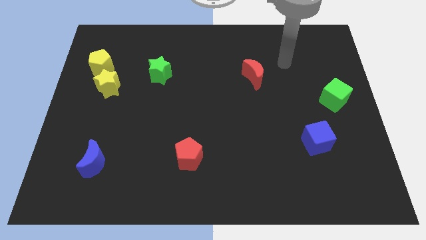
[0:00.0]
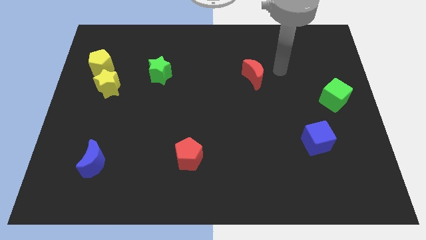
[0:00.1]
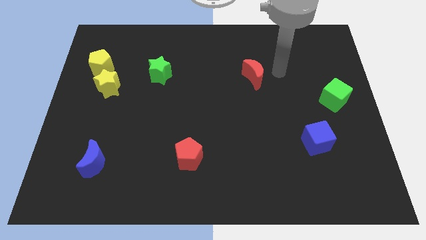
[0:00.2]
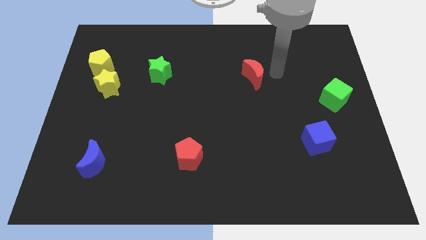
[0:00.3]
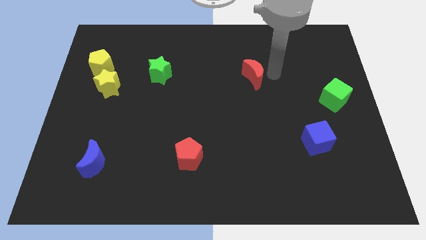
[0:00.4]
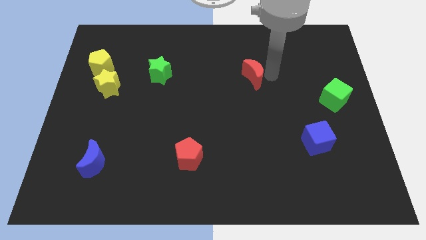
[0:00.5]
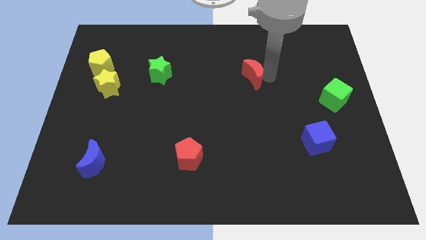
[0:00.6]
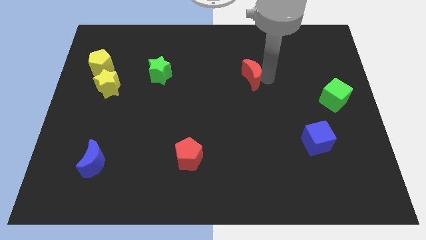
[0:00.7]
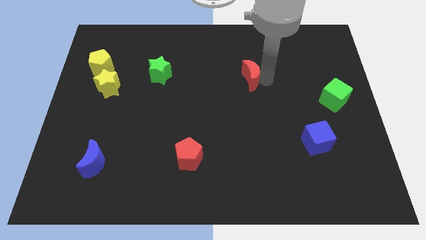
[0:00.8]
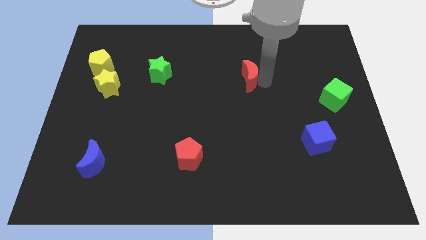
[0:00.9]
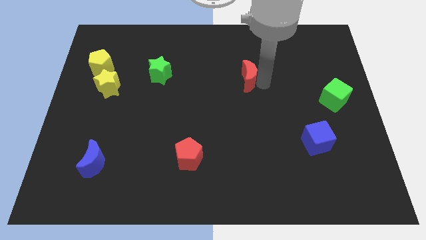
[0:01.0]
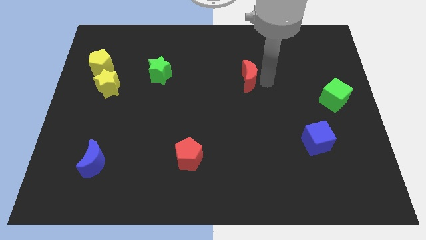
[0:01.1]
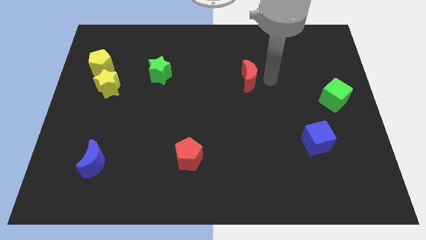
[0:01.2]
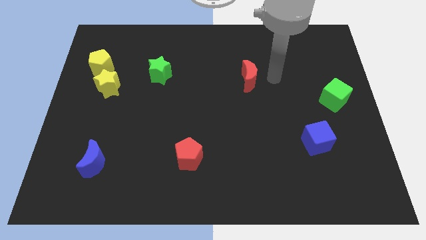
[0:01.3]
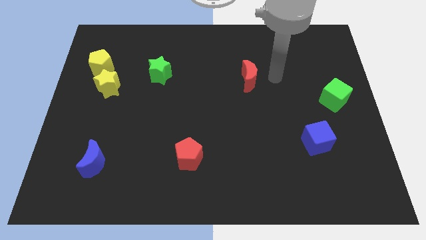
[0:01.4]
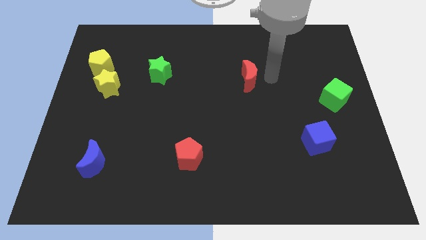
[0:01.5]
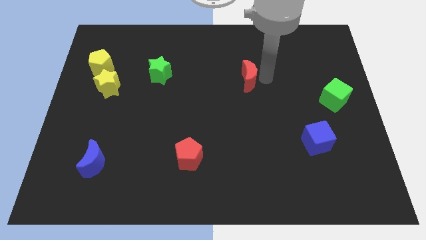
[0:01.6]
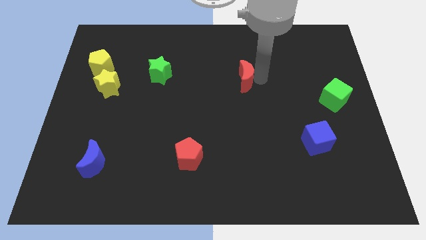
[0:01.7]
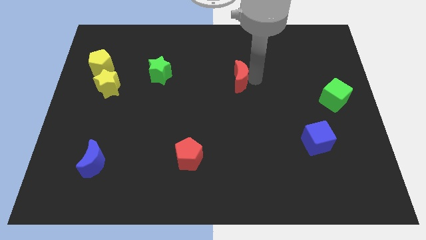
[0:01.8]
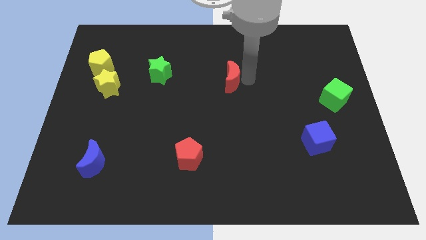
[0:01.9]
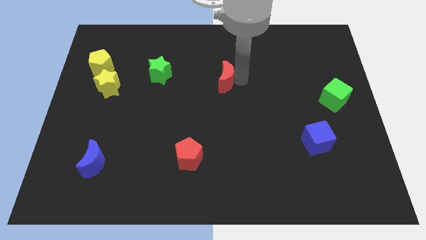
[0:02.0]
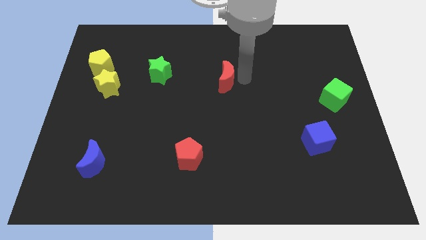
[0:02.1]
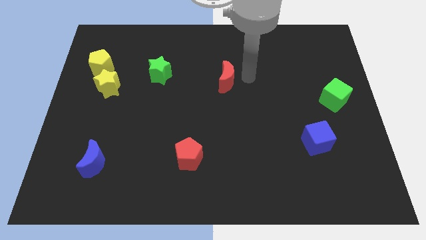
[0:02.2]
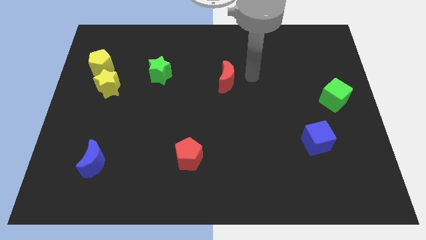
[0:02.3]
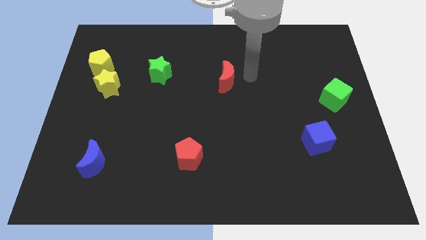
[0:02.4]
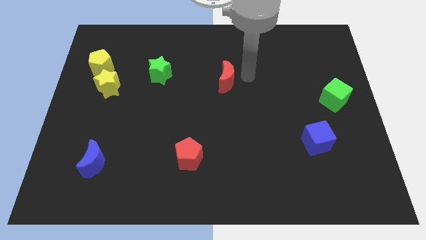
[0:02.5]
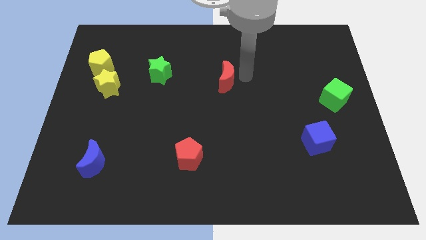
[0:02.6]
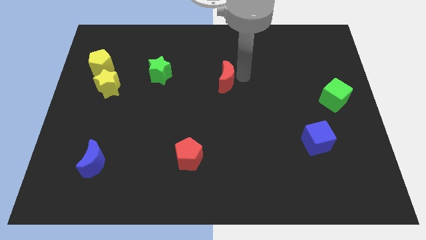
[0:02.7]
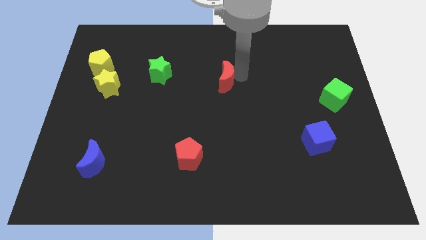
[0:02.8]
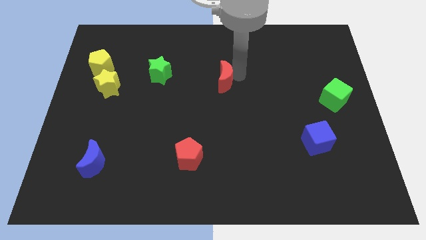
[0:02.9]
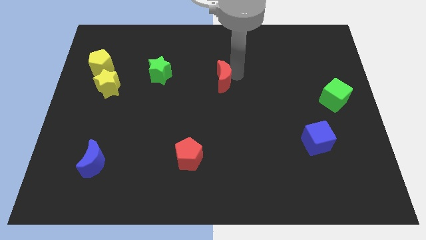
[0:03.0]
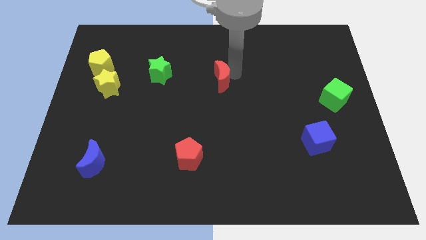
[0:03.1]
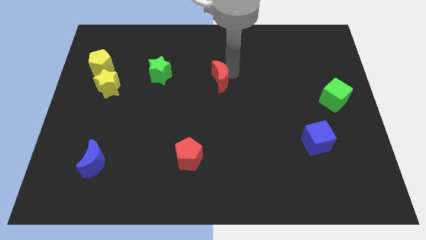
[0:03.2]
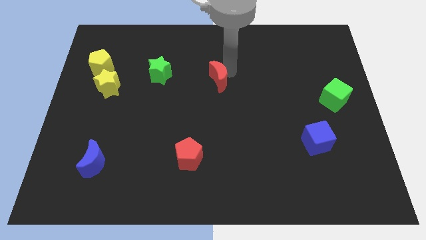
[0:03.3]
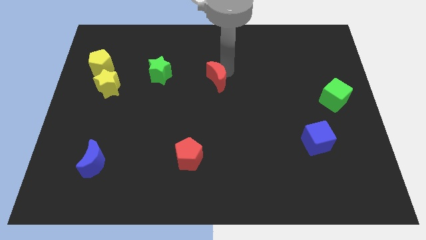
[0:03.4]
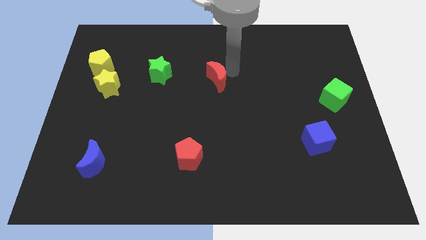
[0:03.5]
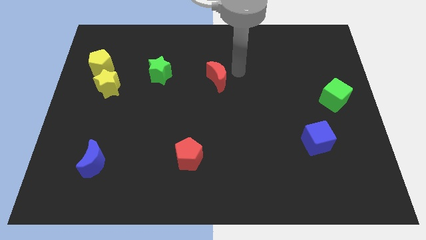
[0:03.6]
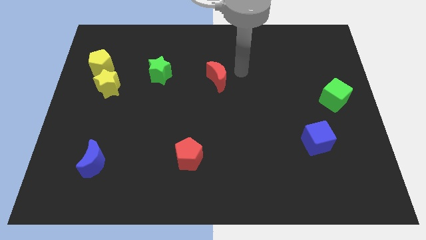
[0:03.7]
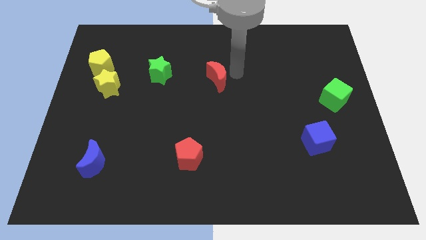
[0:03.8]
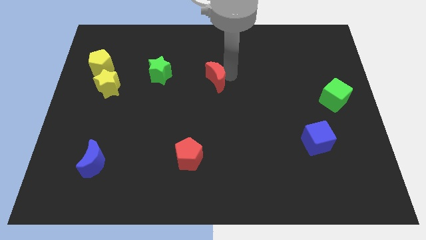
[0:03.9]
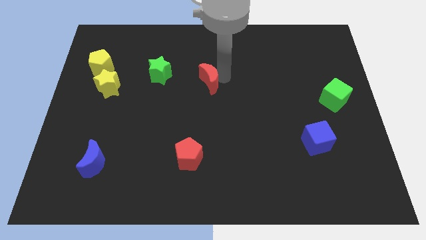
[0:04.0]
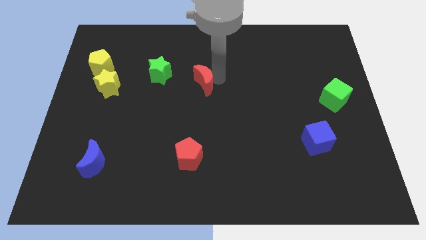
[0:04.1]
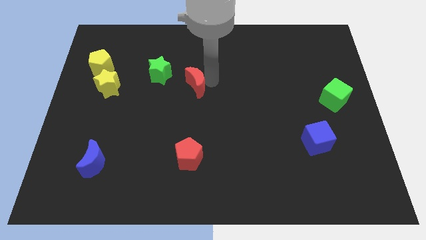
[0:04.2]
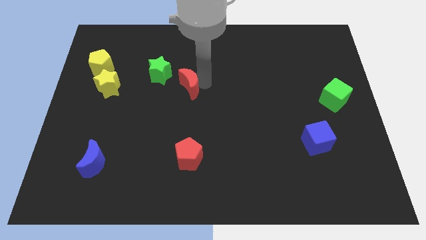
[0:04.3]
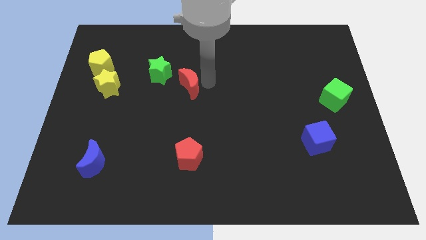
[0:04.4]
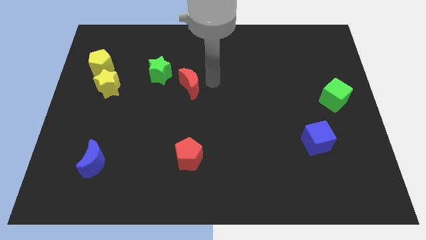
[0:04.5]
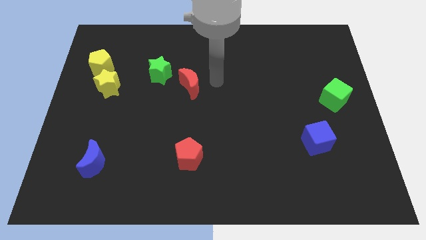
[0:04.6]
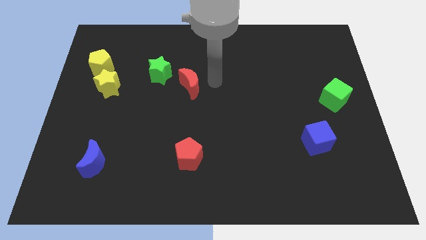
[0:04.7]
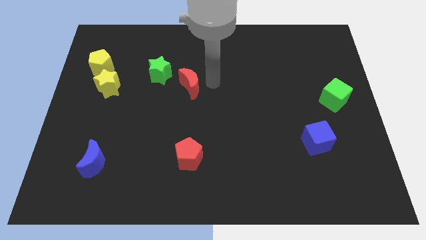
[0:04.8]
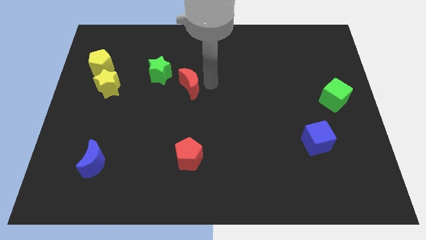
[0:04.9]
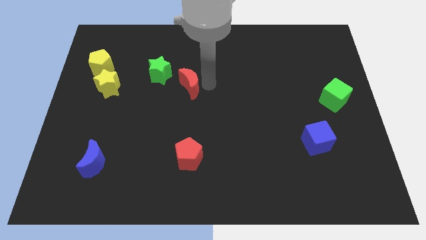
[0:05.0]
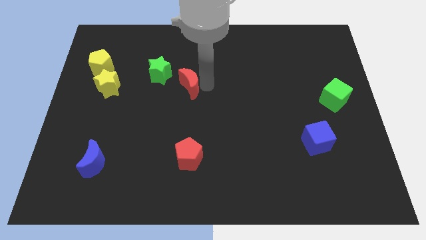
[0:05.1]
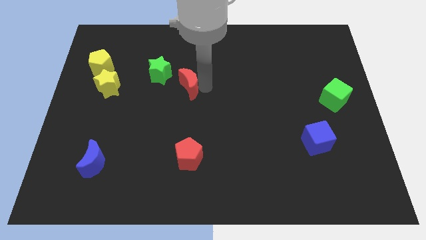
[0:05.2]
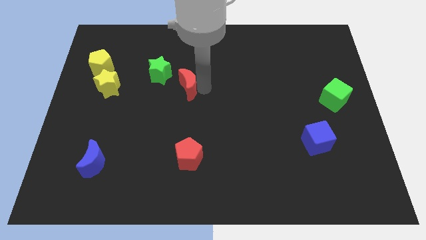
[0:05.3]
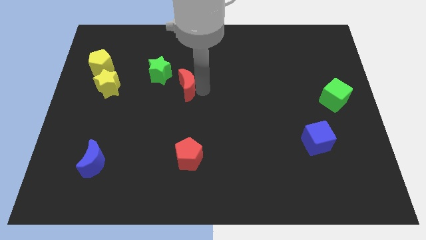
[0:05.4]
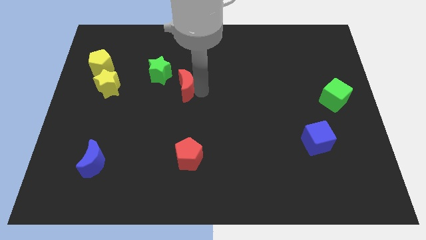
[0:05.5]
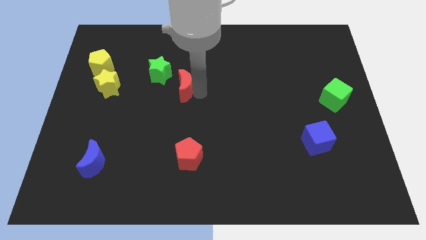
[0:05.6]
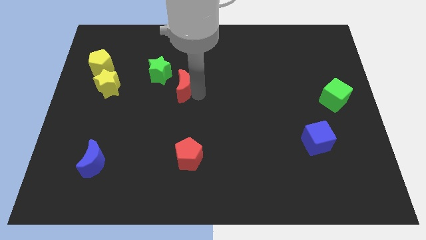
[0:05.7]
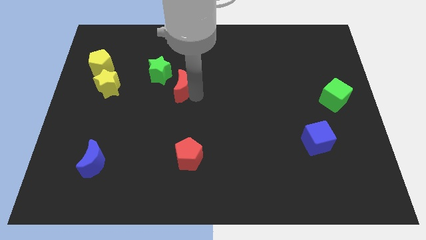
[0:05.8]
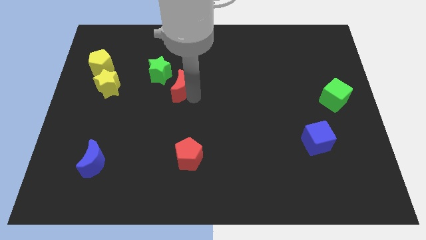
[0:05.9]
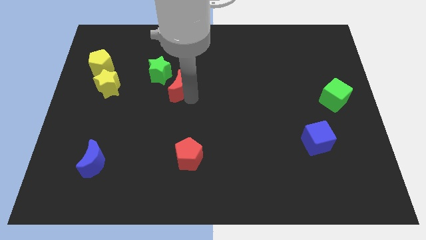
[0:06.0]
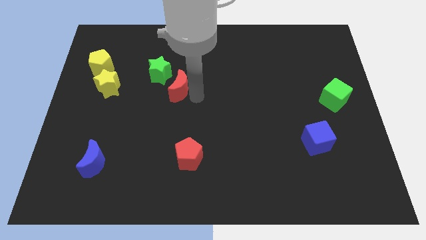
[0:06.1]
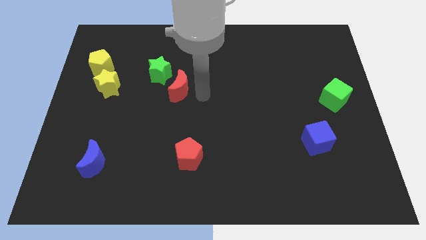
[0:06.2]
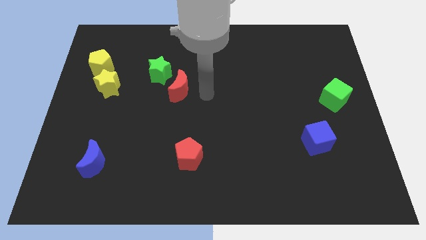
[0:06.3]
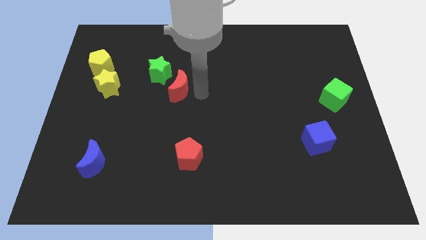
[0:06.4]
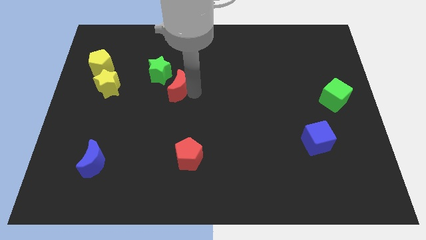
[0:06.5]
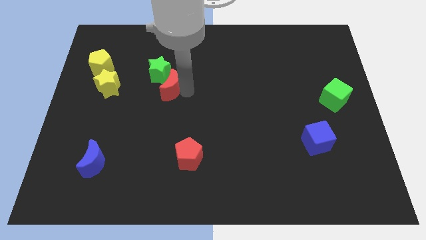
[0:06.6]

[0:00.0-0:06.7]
push the red moon to the left

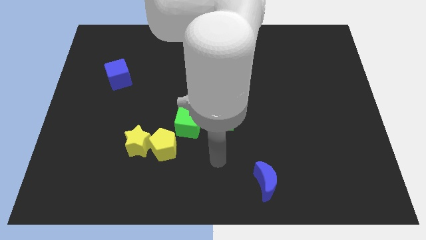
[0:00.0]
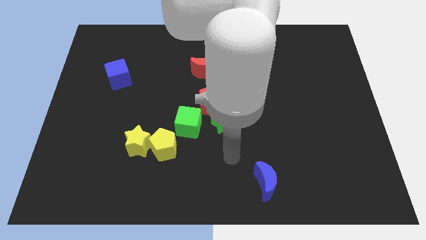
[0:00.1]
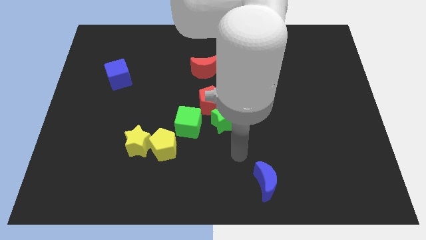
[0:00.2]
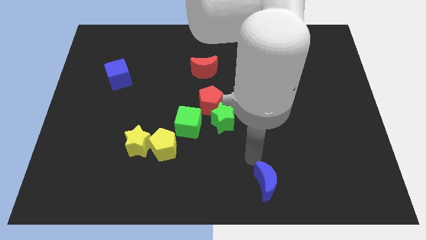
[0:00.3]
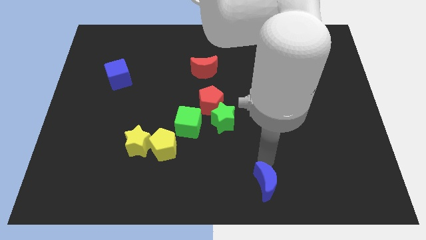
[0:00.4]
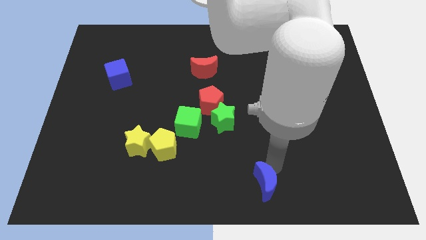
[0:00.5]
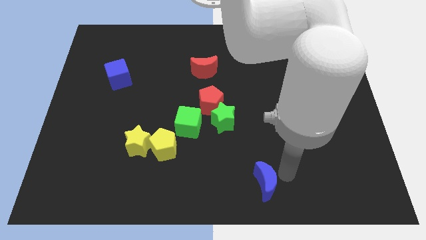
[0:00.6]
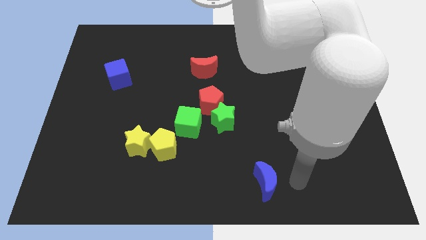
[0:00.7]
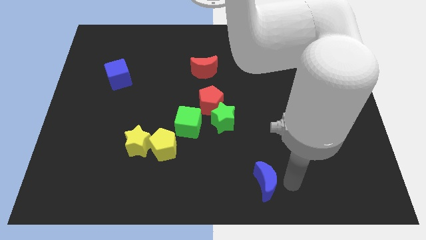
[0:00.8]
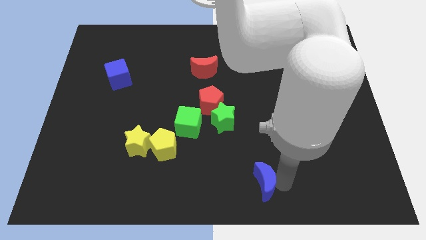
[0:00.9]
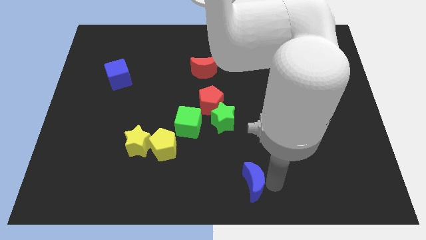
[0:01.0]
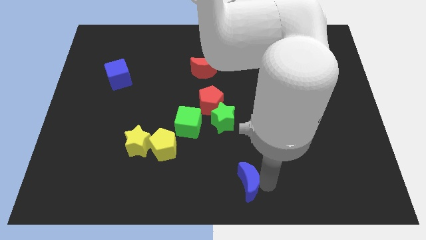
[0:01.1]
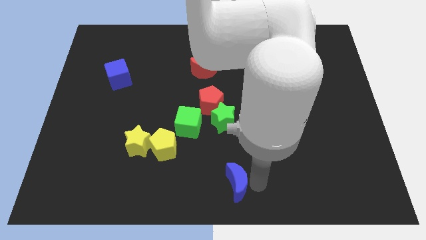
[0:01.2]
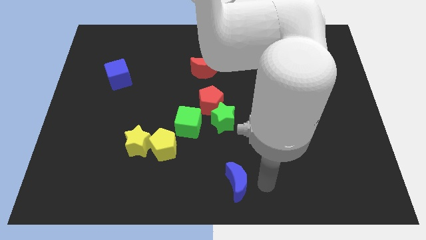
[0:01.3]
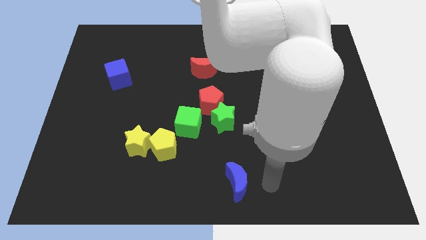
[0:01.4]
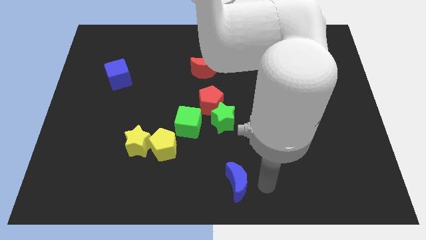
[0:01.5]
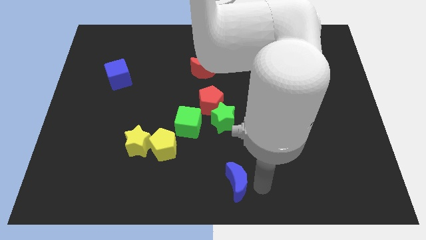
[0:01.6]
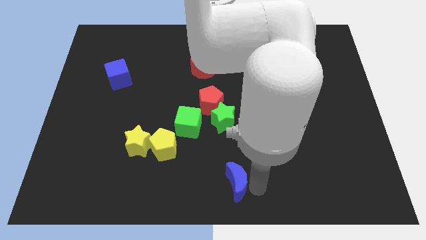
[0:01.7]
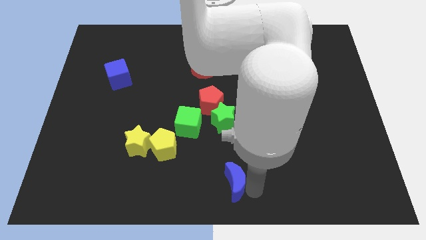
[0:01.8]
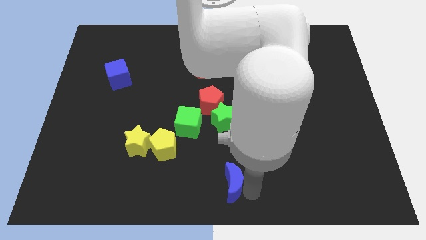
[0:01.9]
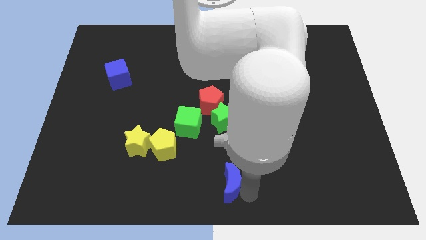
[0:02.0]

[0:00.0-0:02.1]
move the blue moon a little bit left
